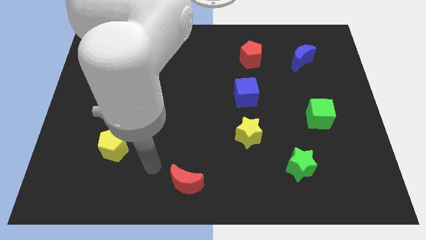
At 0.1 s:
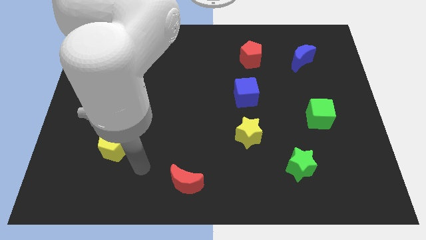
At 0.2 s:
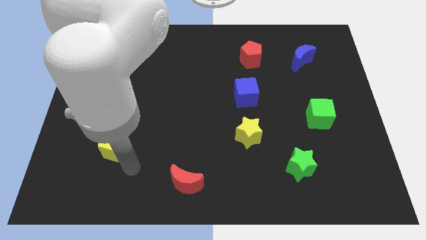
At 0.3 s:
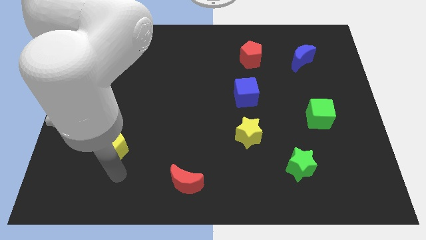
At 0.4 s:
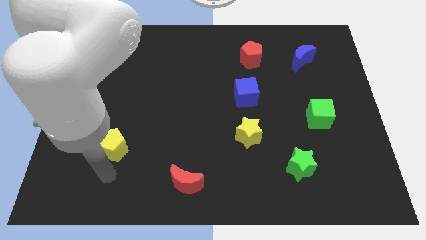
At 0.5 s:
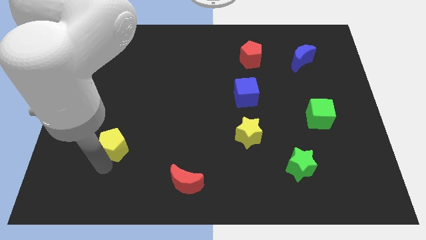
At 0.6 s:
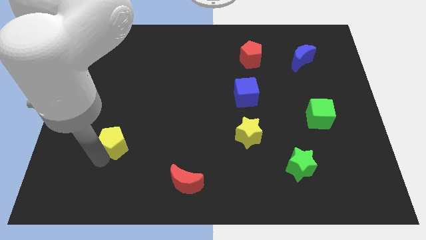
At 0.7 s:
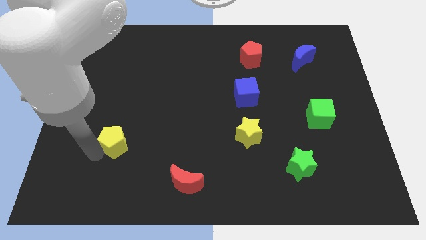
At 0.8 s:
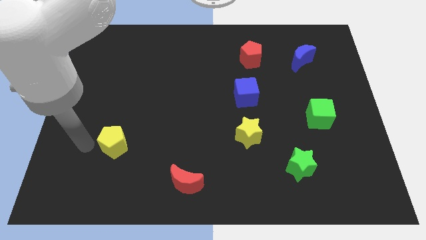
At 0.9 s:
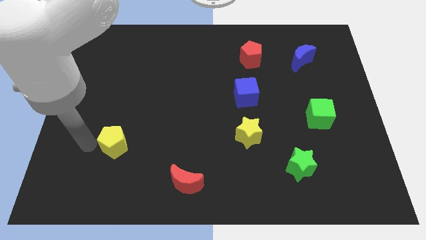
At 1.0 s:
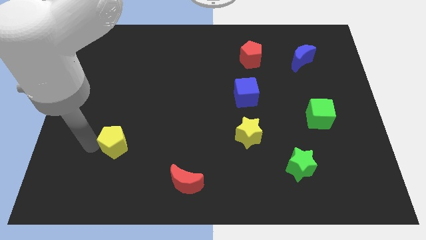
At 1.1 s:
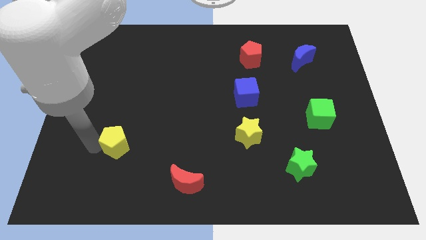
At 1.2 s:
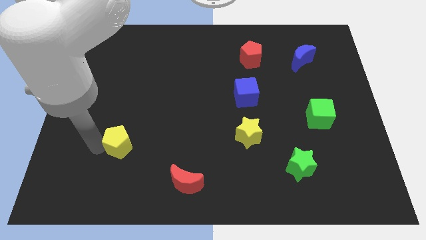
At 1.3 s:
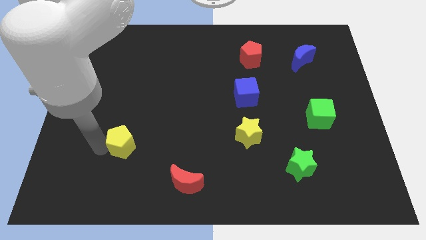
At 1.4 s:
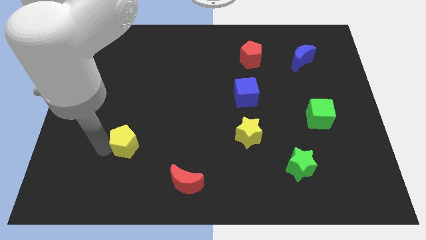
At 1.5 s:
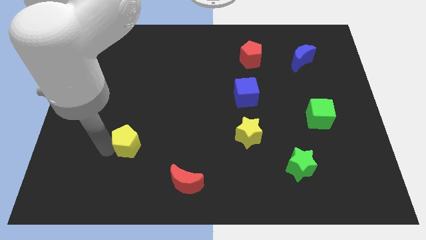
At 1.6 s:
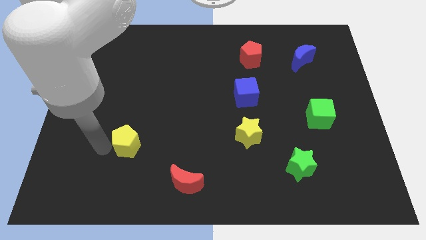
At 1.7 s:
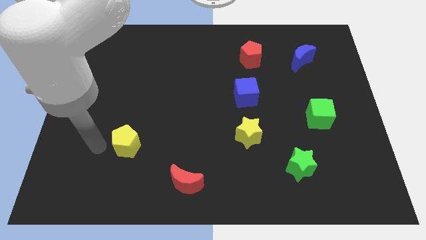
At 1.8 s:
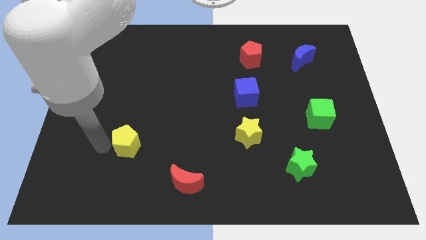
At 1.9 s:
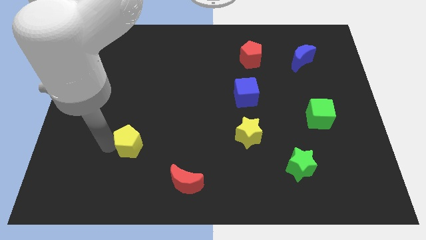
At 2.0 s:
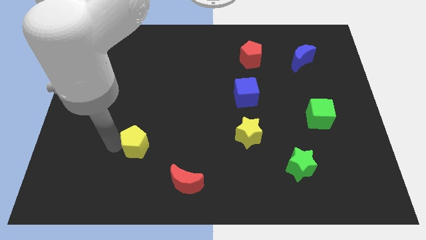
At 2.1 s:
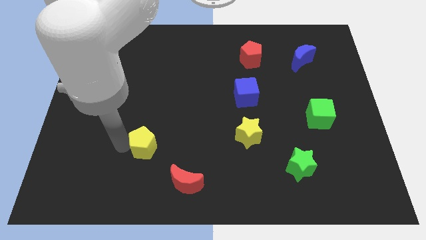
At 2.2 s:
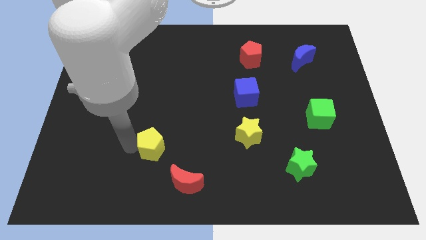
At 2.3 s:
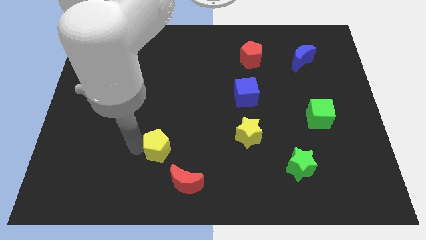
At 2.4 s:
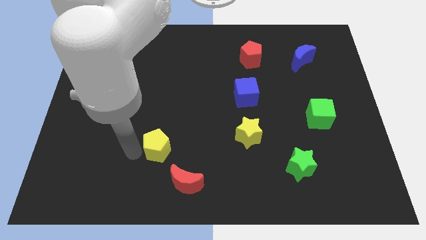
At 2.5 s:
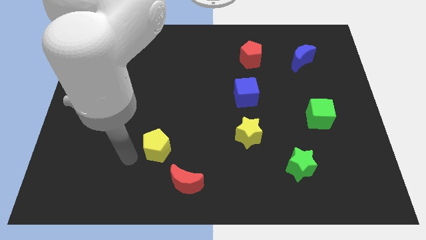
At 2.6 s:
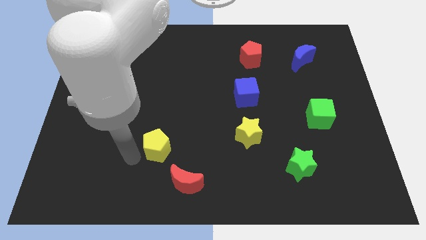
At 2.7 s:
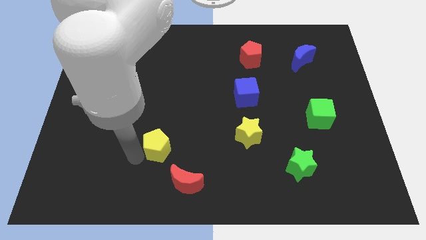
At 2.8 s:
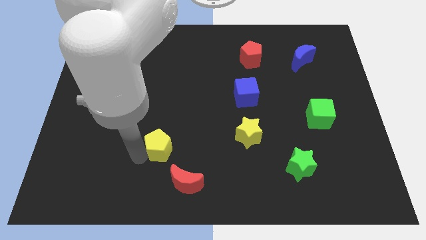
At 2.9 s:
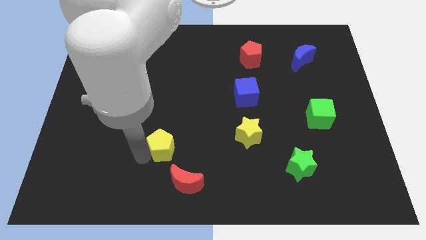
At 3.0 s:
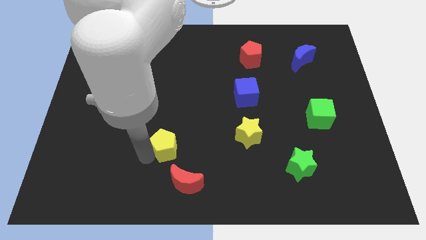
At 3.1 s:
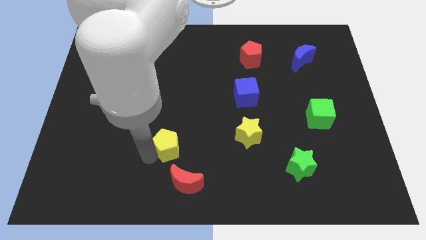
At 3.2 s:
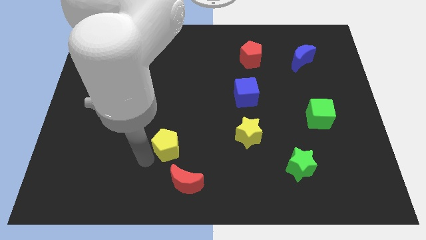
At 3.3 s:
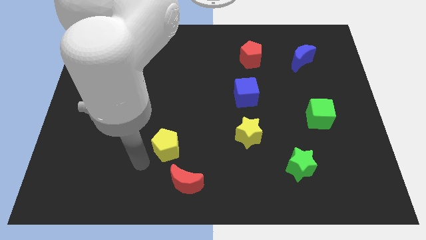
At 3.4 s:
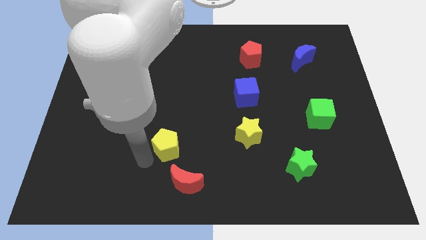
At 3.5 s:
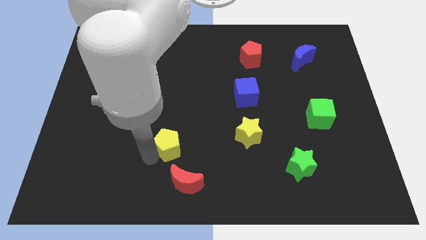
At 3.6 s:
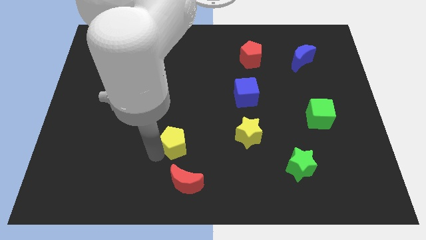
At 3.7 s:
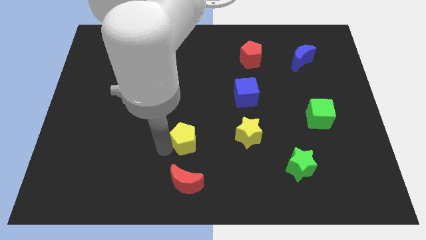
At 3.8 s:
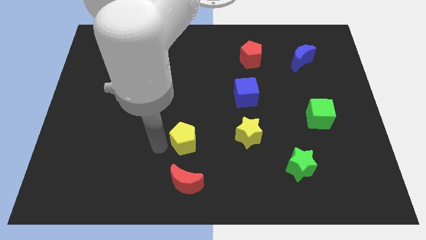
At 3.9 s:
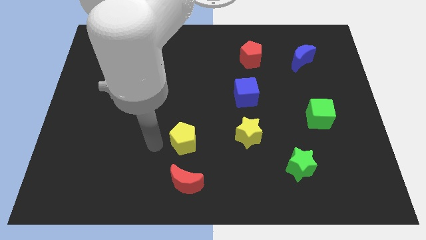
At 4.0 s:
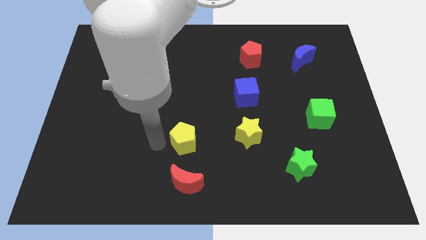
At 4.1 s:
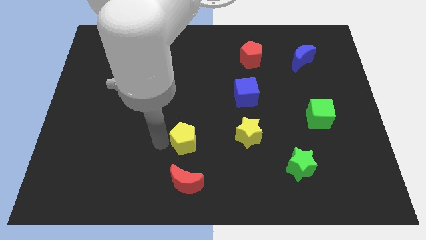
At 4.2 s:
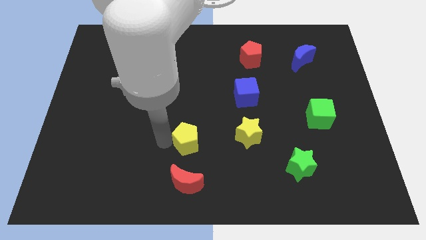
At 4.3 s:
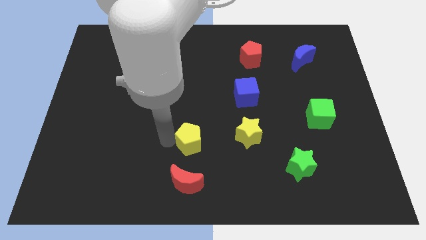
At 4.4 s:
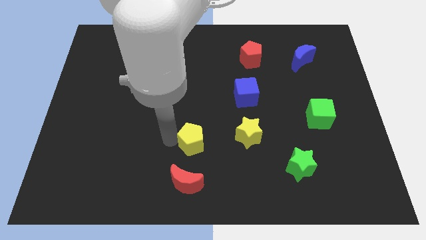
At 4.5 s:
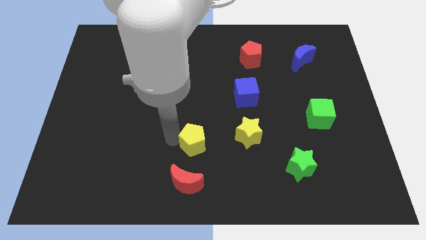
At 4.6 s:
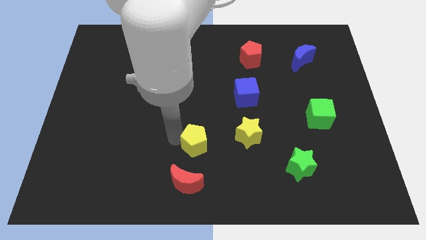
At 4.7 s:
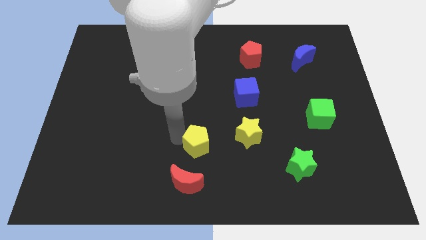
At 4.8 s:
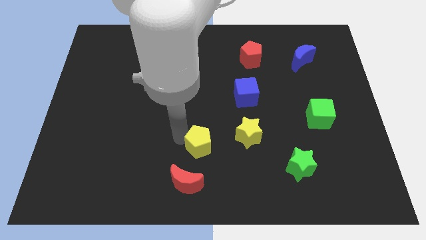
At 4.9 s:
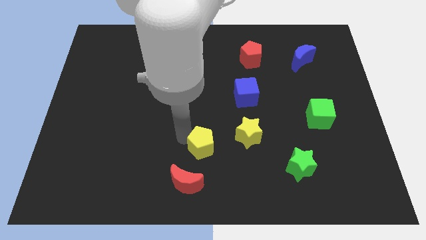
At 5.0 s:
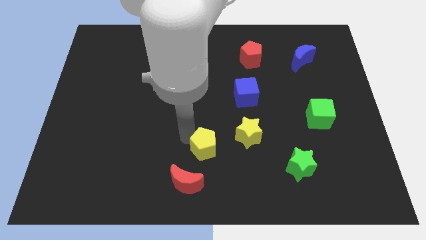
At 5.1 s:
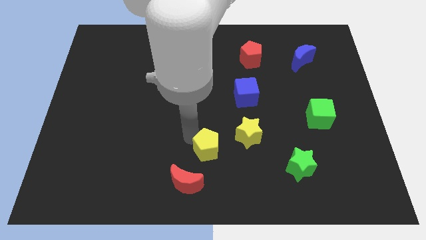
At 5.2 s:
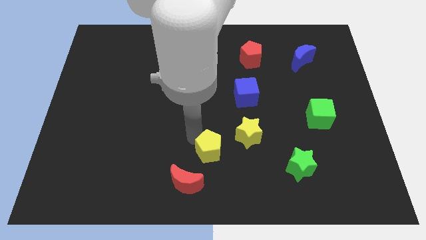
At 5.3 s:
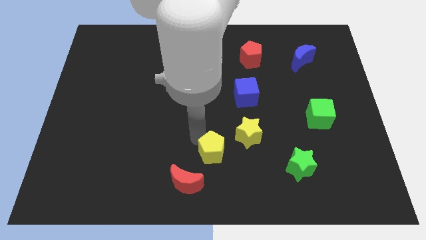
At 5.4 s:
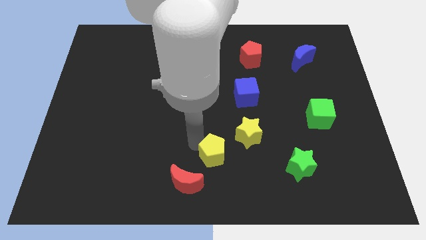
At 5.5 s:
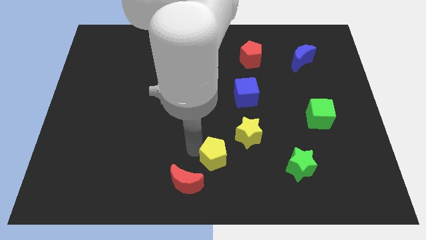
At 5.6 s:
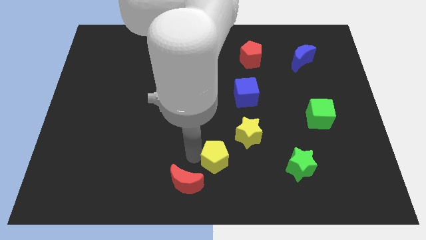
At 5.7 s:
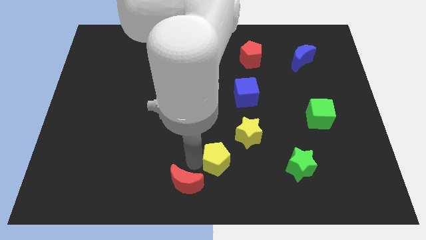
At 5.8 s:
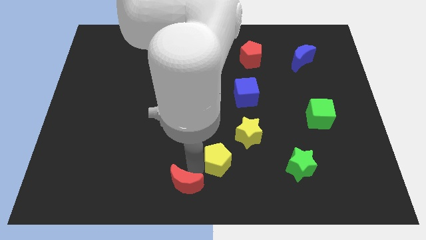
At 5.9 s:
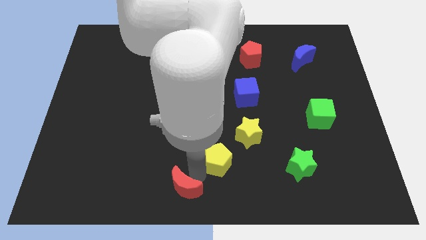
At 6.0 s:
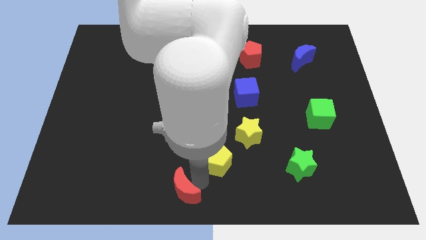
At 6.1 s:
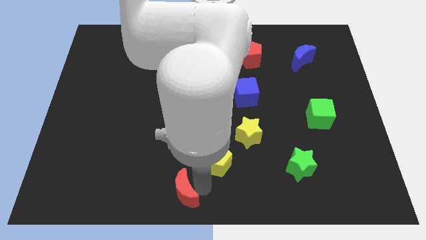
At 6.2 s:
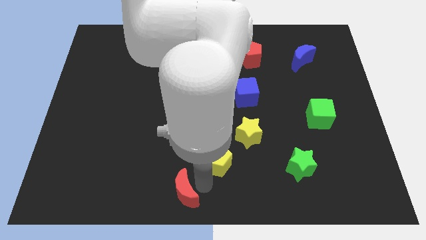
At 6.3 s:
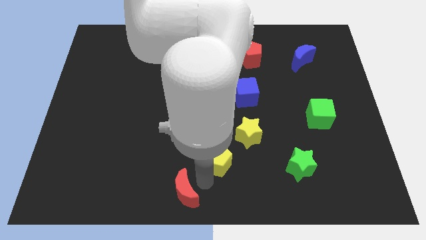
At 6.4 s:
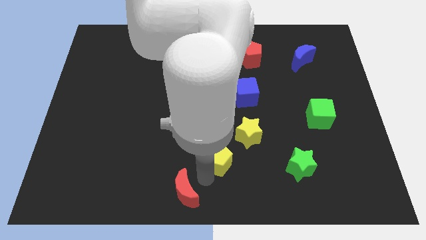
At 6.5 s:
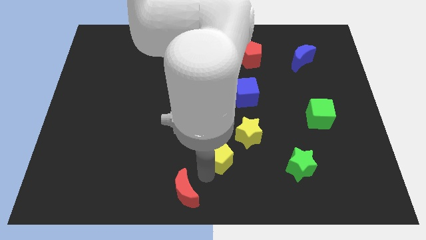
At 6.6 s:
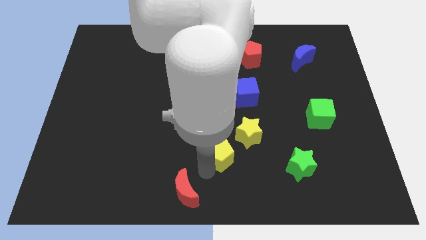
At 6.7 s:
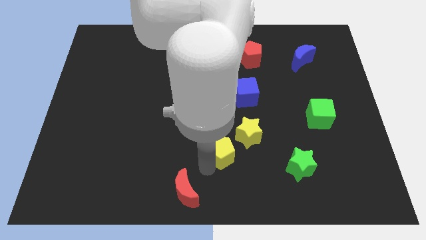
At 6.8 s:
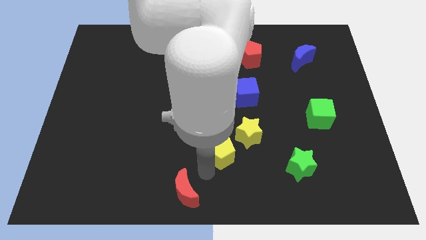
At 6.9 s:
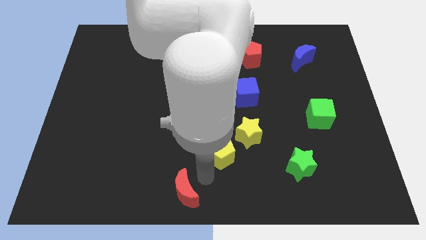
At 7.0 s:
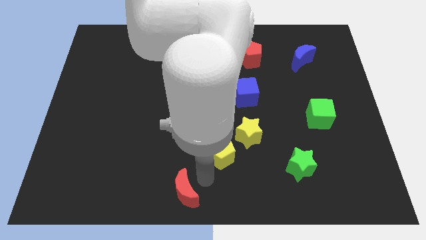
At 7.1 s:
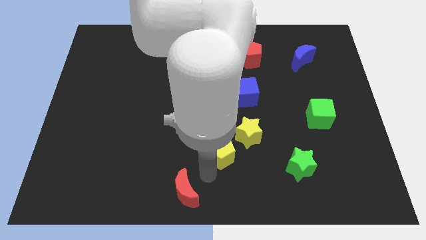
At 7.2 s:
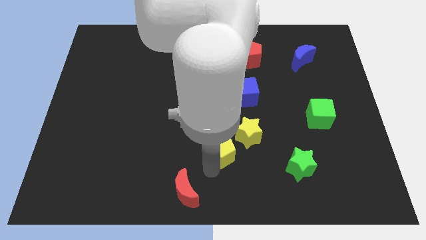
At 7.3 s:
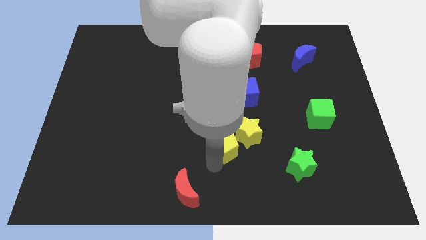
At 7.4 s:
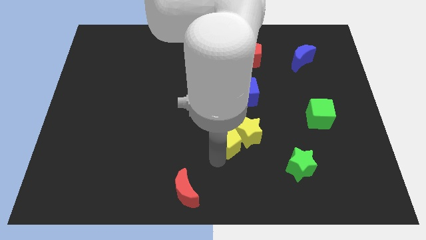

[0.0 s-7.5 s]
slide the yellow pentagon towards the yellow star
